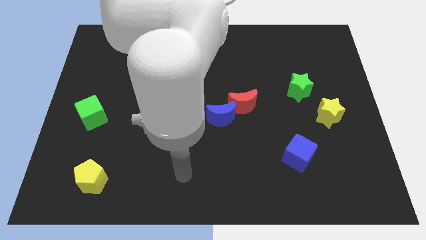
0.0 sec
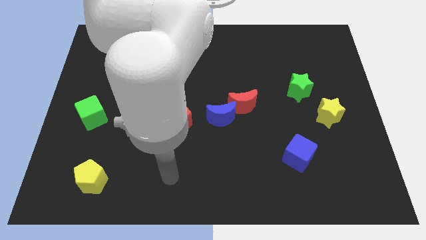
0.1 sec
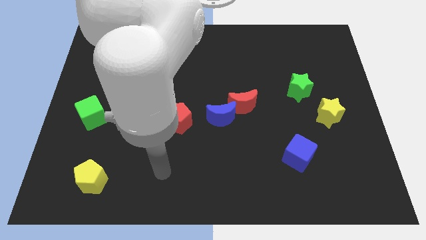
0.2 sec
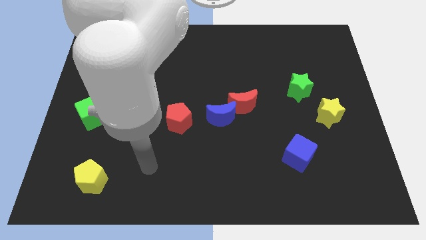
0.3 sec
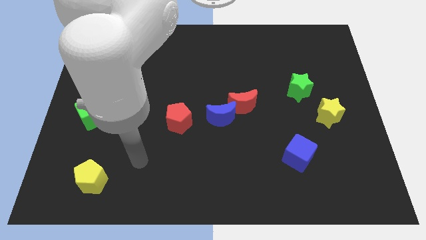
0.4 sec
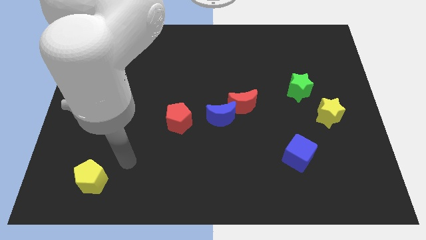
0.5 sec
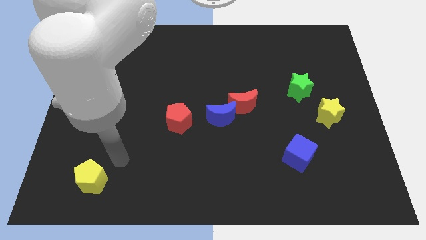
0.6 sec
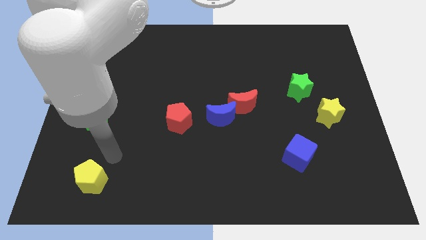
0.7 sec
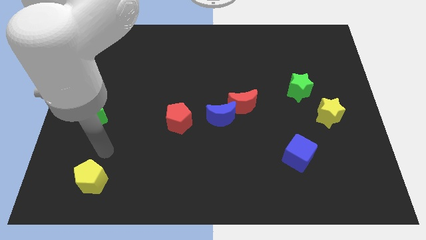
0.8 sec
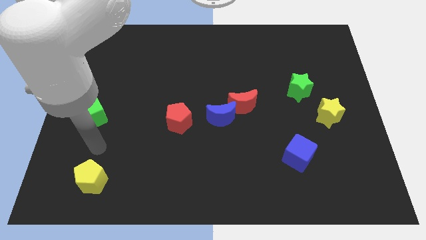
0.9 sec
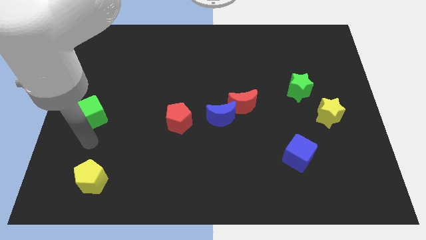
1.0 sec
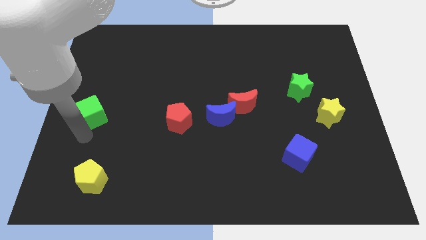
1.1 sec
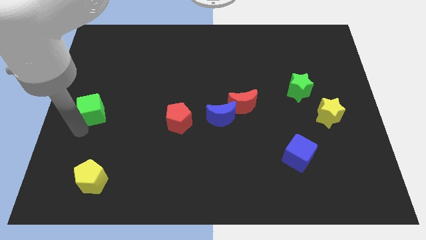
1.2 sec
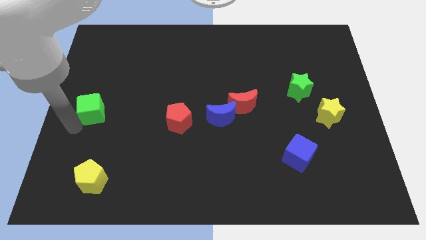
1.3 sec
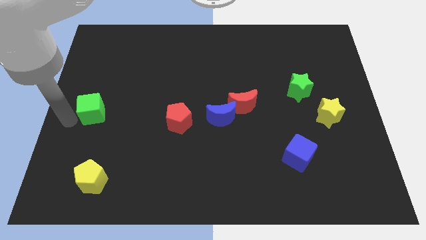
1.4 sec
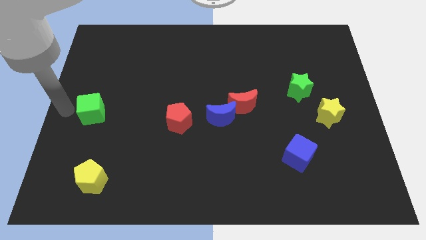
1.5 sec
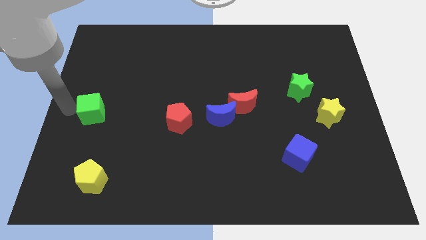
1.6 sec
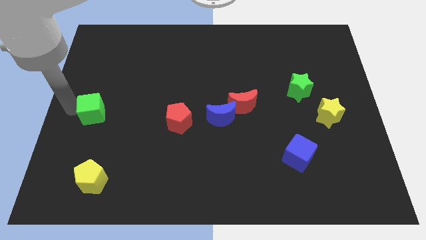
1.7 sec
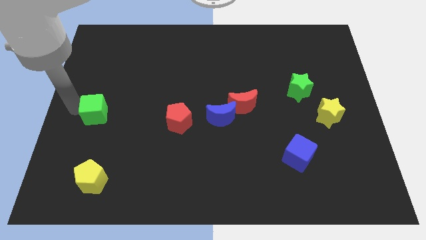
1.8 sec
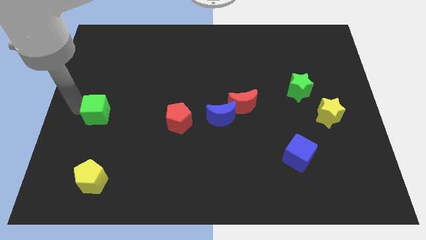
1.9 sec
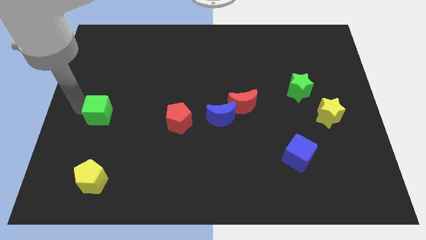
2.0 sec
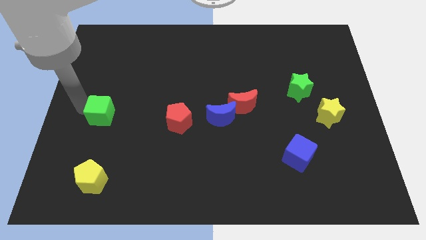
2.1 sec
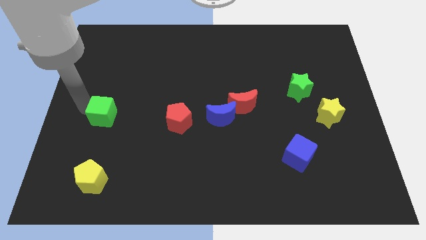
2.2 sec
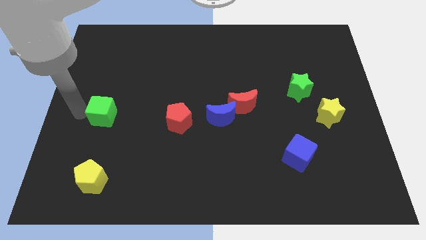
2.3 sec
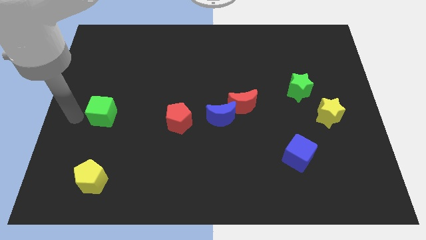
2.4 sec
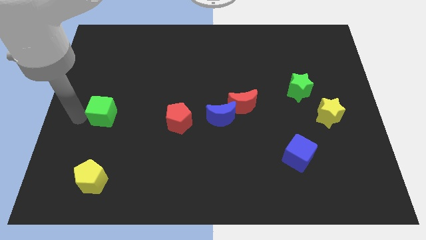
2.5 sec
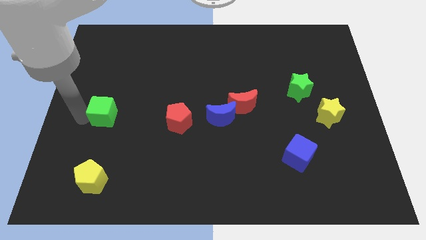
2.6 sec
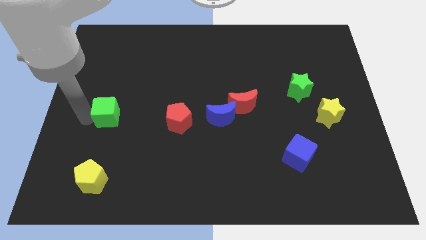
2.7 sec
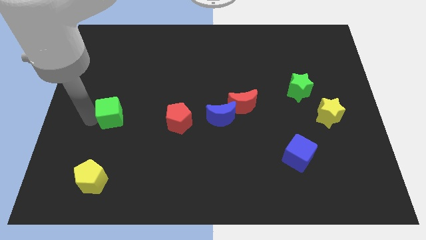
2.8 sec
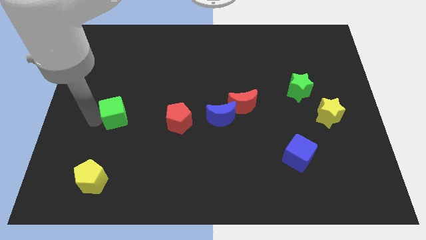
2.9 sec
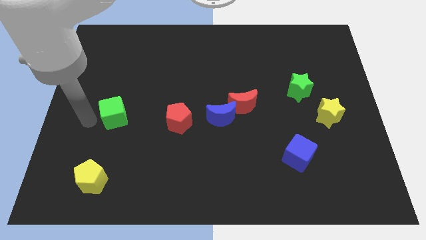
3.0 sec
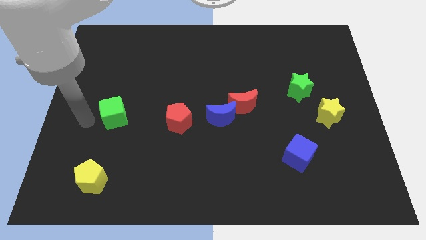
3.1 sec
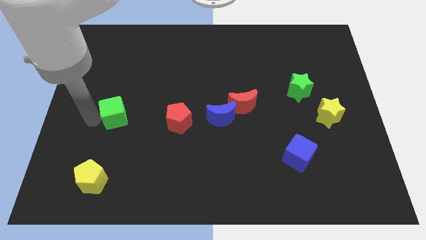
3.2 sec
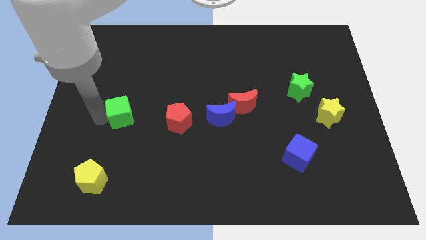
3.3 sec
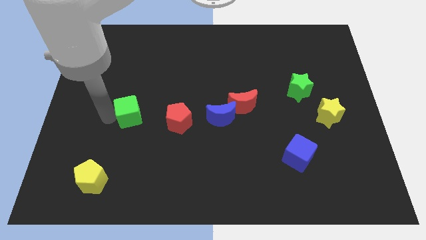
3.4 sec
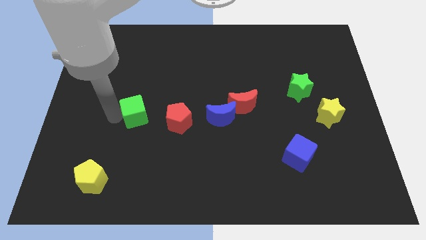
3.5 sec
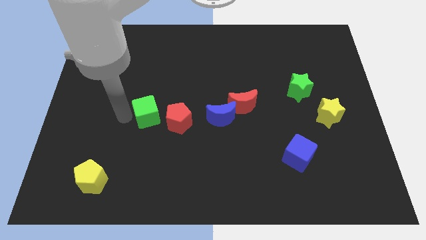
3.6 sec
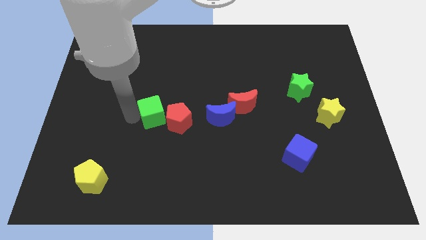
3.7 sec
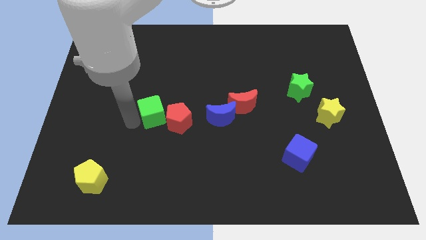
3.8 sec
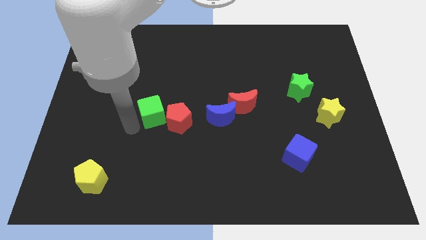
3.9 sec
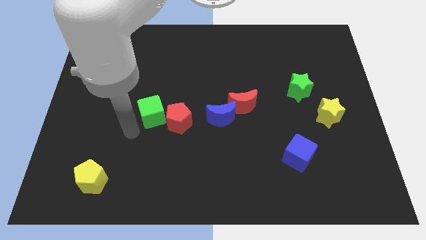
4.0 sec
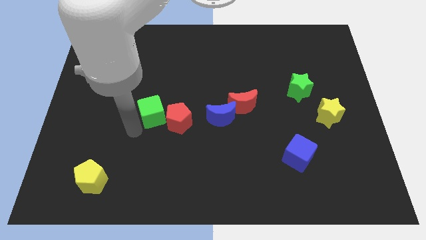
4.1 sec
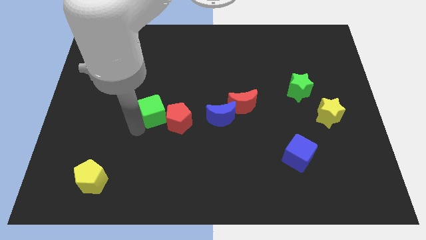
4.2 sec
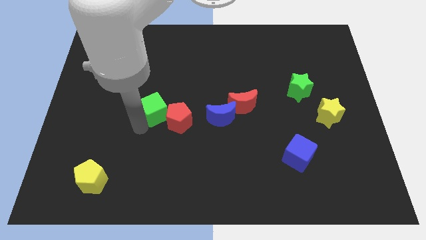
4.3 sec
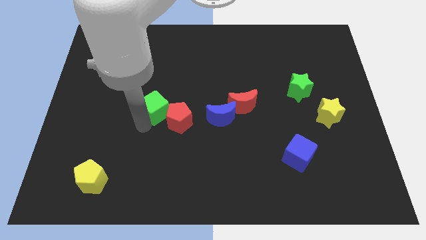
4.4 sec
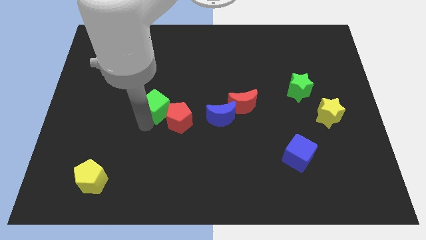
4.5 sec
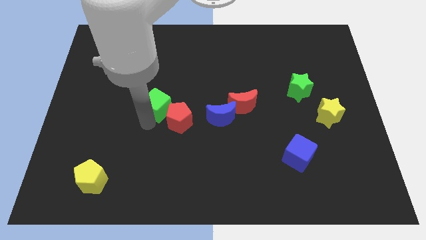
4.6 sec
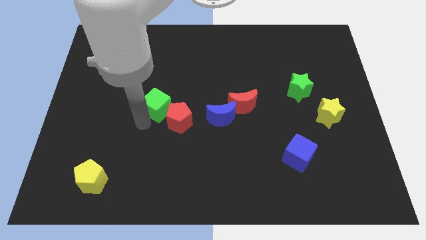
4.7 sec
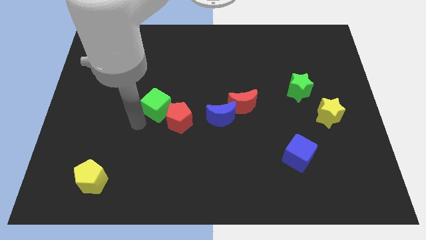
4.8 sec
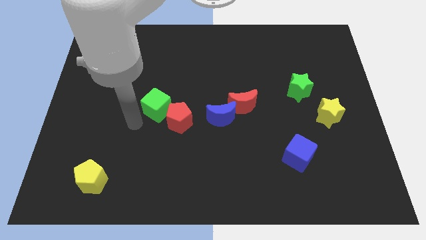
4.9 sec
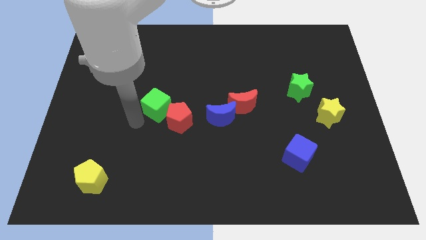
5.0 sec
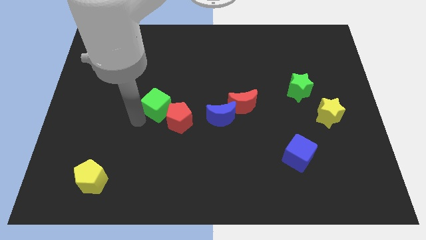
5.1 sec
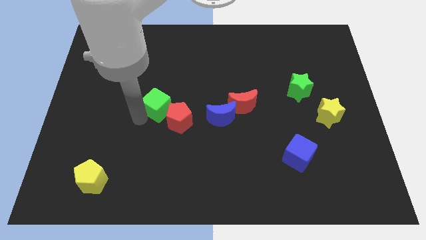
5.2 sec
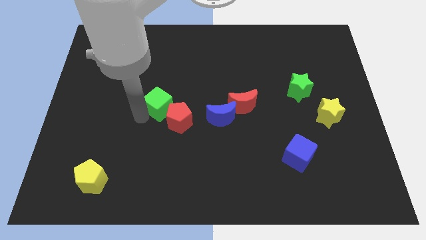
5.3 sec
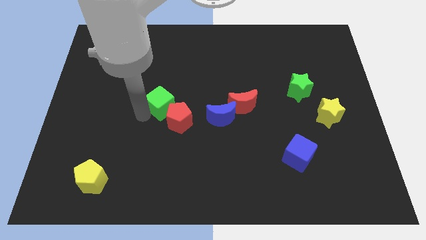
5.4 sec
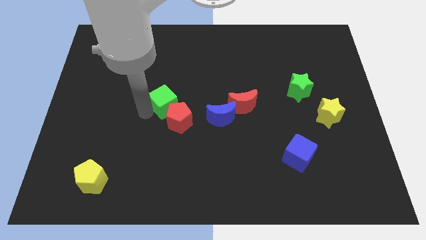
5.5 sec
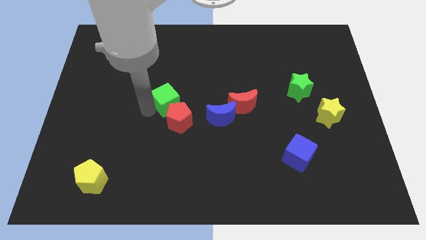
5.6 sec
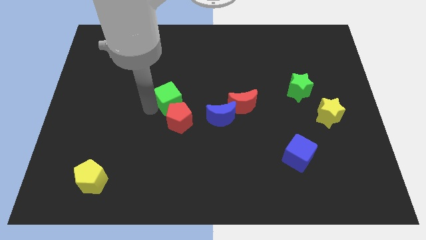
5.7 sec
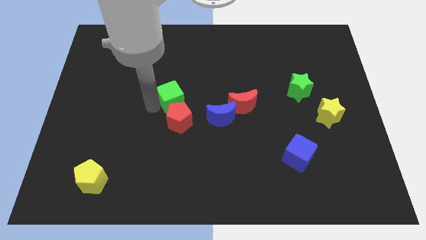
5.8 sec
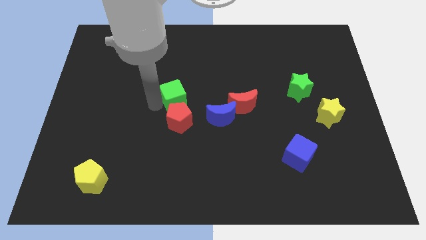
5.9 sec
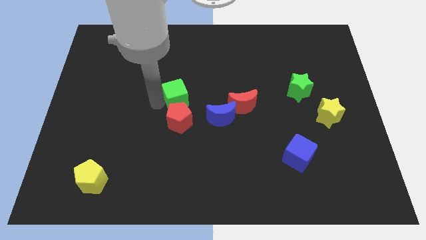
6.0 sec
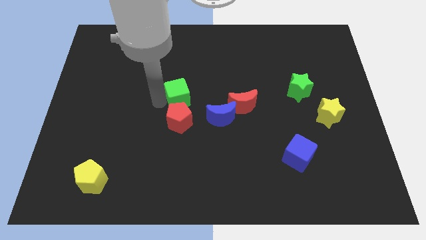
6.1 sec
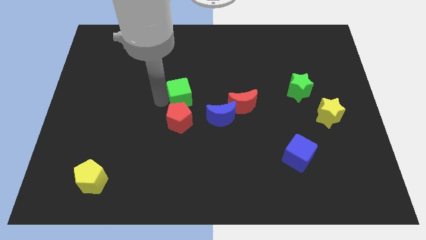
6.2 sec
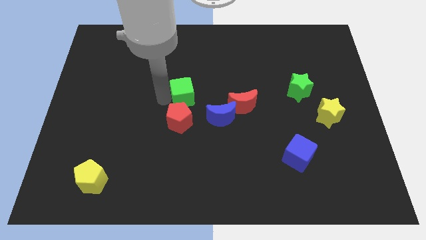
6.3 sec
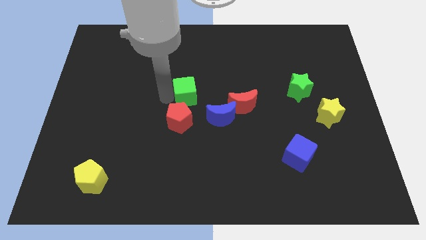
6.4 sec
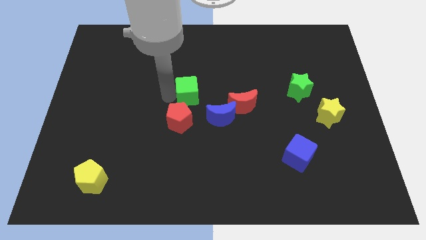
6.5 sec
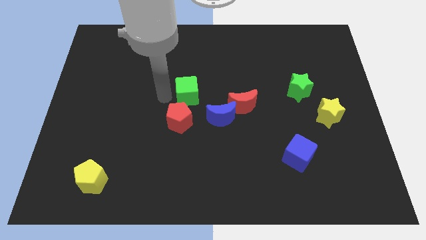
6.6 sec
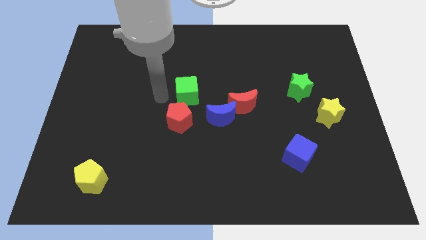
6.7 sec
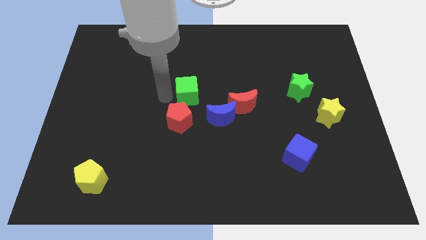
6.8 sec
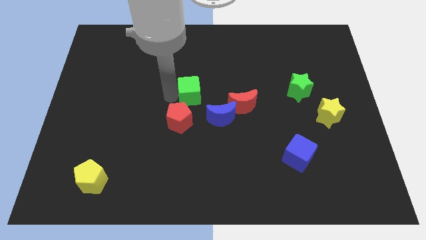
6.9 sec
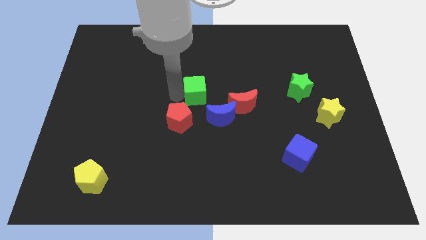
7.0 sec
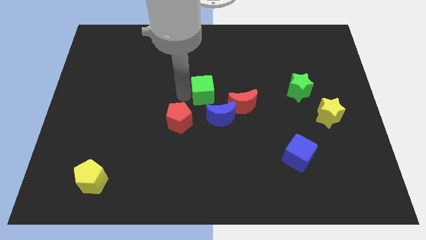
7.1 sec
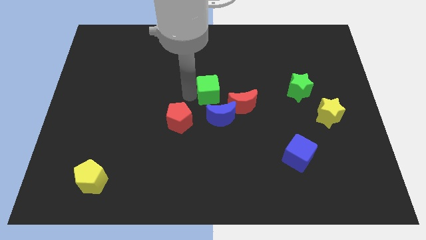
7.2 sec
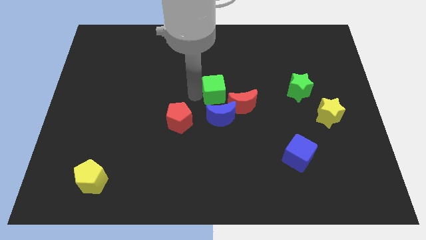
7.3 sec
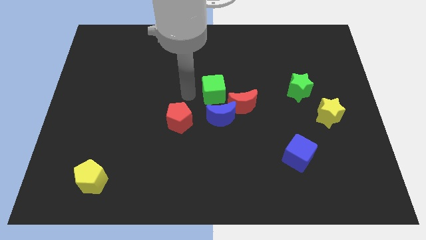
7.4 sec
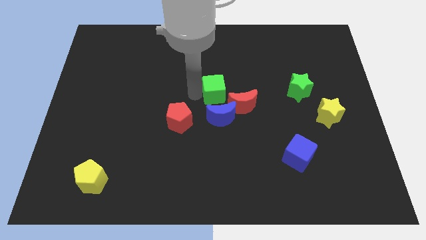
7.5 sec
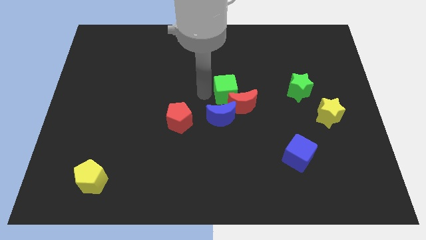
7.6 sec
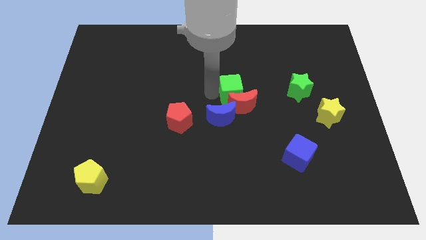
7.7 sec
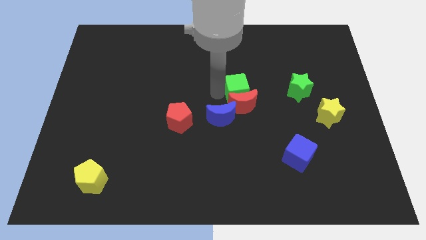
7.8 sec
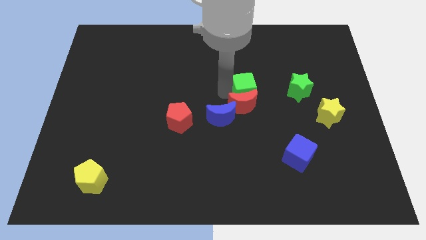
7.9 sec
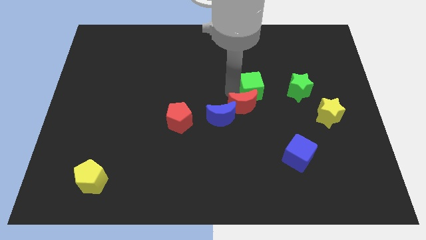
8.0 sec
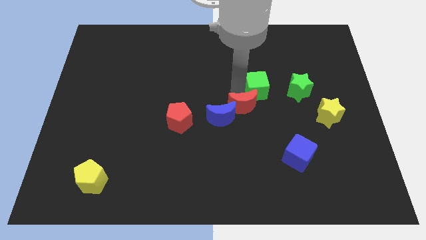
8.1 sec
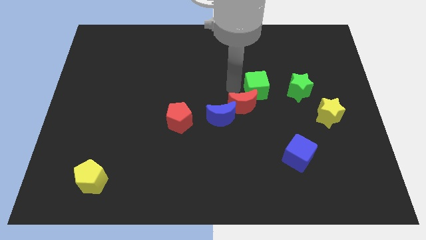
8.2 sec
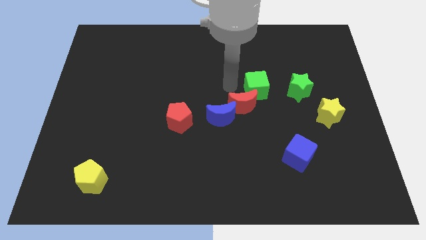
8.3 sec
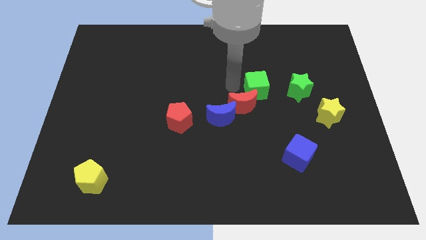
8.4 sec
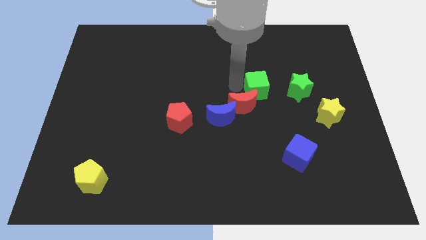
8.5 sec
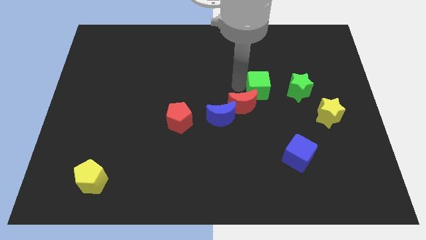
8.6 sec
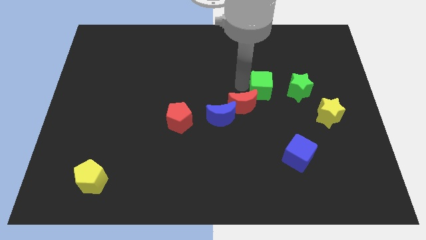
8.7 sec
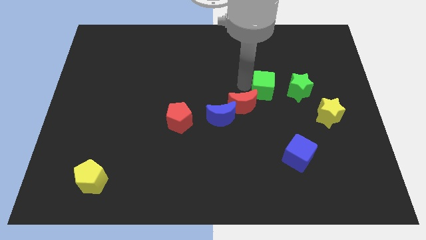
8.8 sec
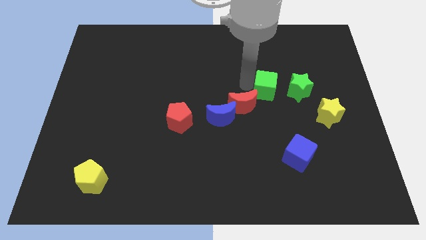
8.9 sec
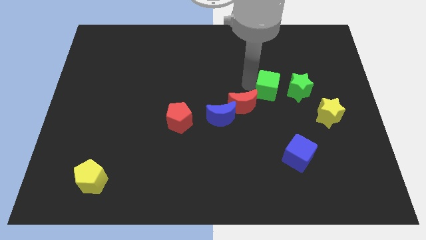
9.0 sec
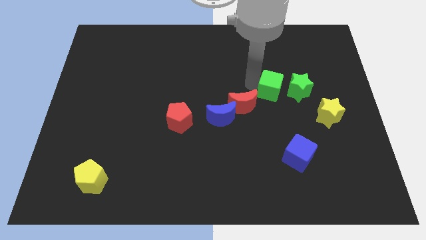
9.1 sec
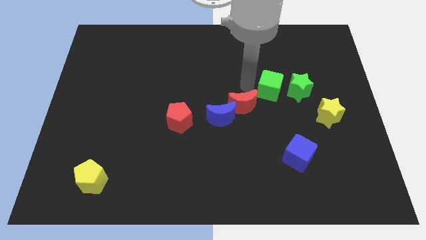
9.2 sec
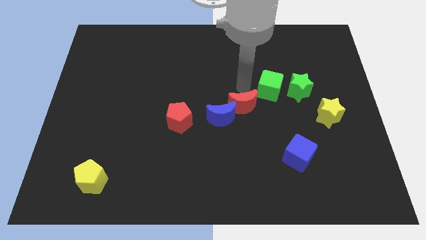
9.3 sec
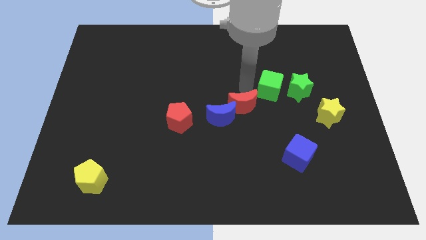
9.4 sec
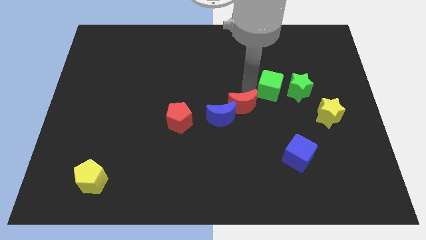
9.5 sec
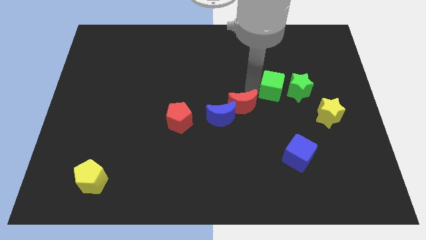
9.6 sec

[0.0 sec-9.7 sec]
slide the green cube close to the green star
